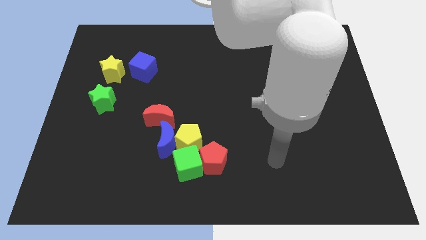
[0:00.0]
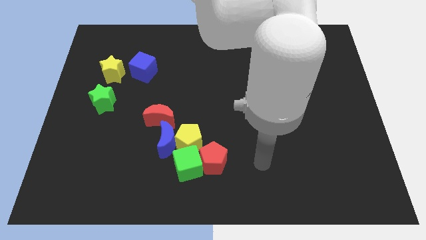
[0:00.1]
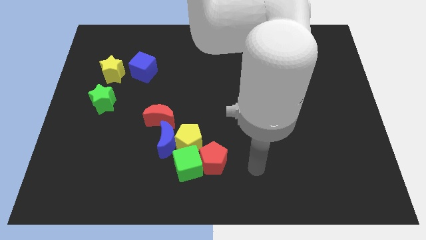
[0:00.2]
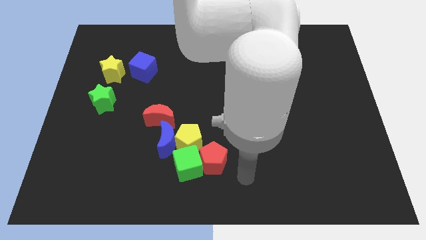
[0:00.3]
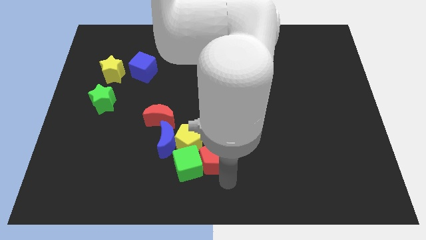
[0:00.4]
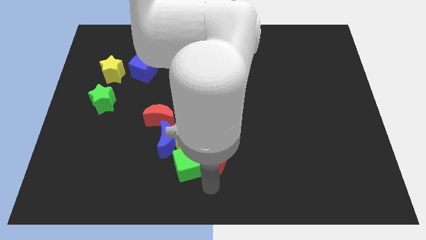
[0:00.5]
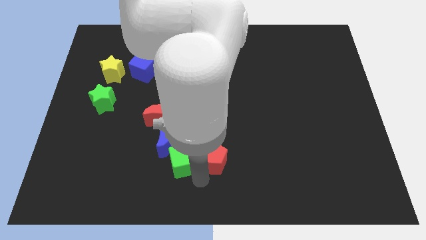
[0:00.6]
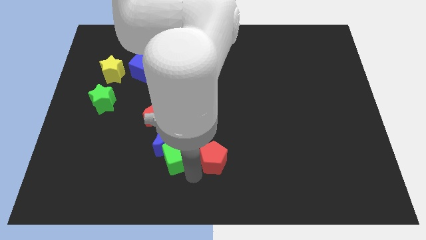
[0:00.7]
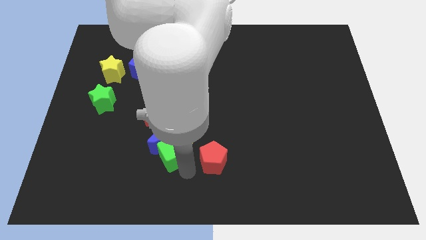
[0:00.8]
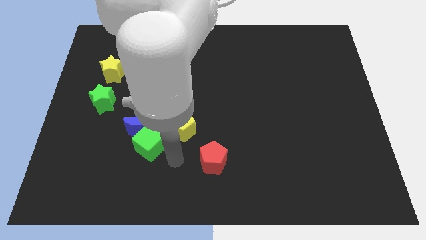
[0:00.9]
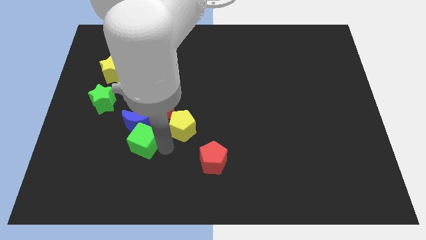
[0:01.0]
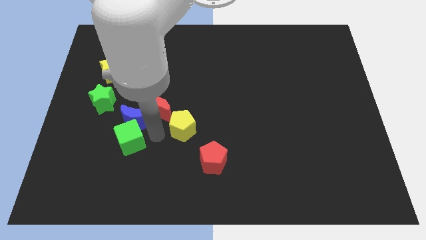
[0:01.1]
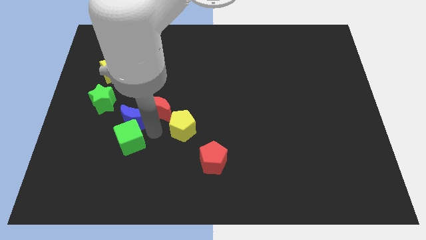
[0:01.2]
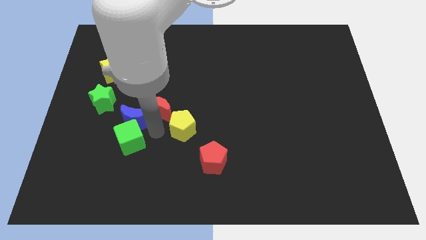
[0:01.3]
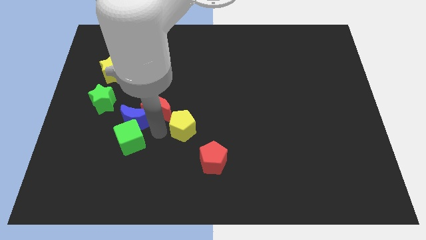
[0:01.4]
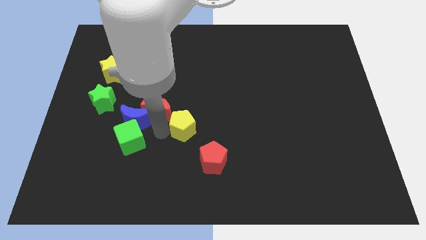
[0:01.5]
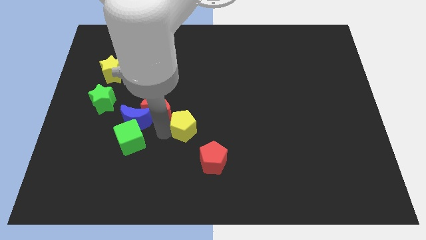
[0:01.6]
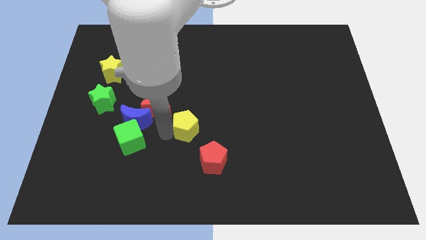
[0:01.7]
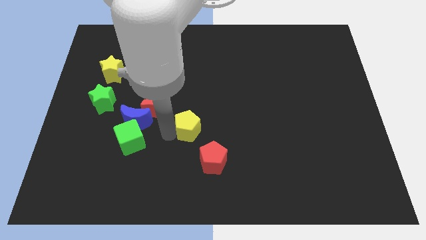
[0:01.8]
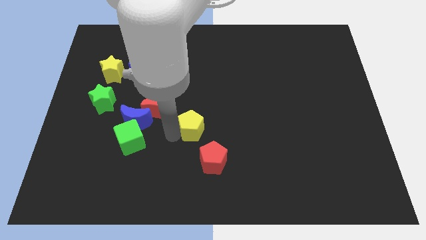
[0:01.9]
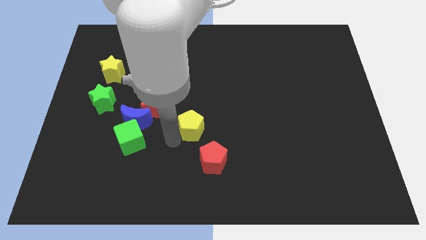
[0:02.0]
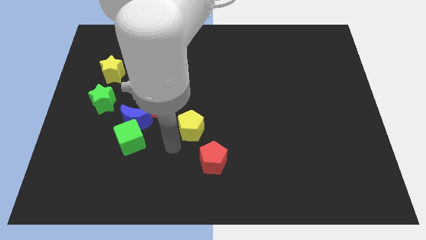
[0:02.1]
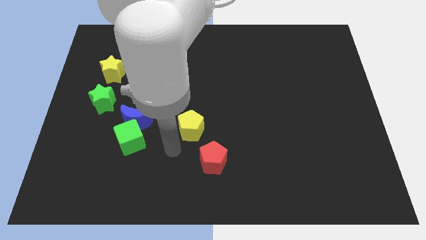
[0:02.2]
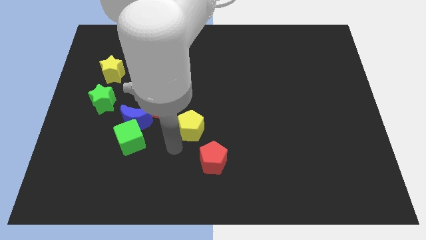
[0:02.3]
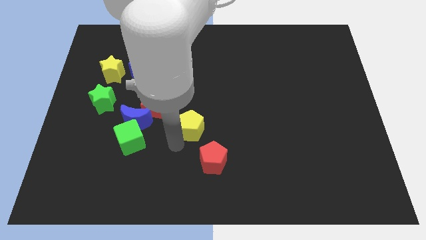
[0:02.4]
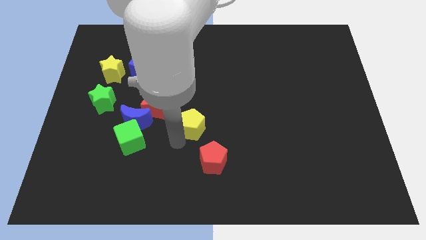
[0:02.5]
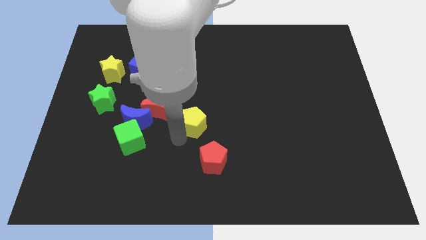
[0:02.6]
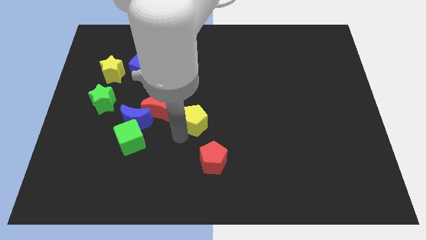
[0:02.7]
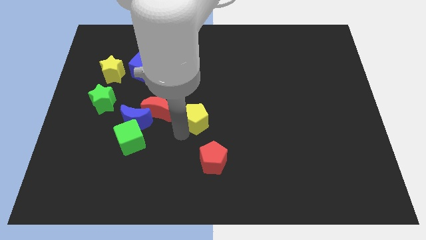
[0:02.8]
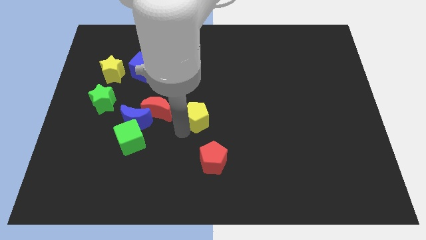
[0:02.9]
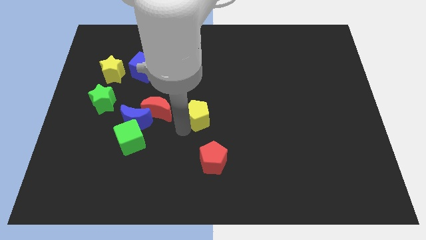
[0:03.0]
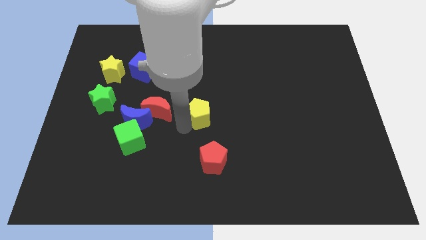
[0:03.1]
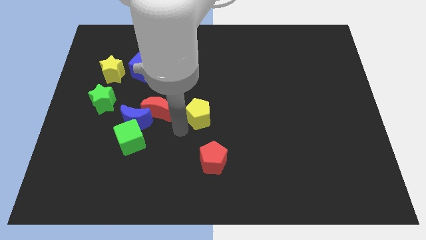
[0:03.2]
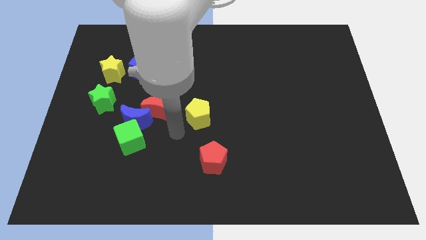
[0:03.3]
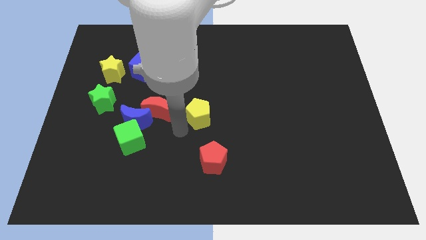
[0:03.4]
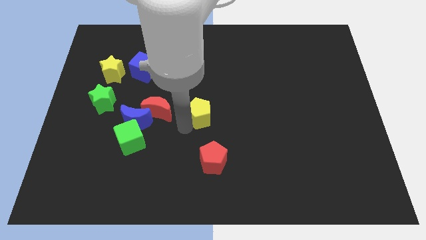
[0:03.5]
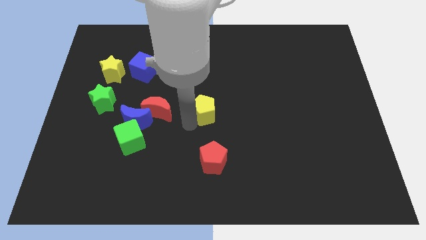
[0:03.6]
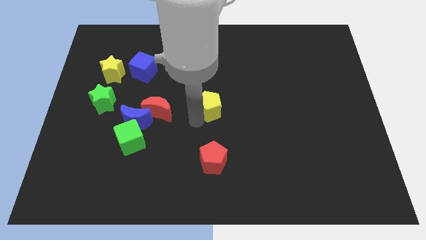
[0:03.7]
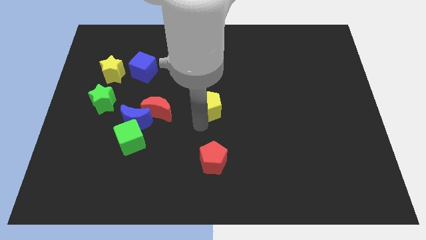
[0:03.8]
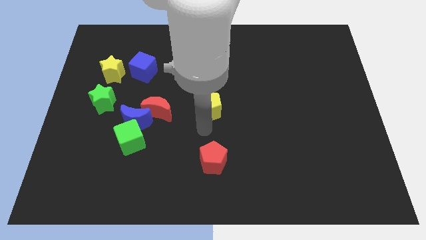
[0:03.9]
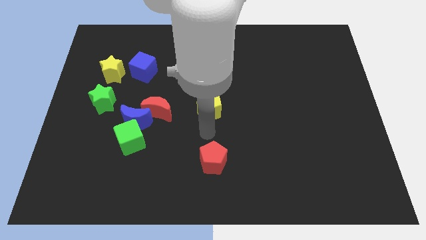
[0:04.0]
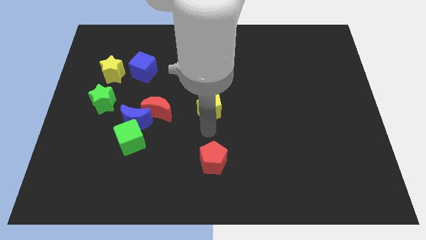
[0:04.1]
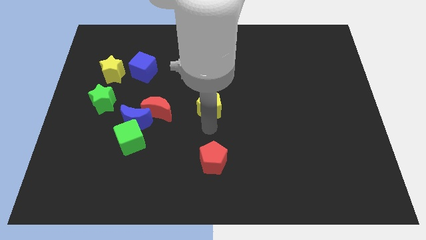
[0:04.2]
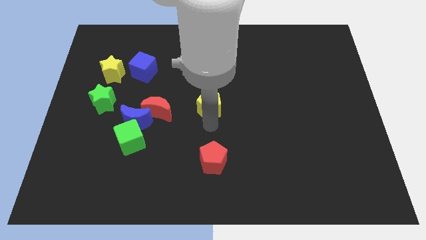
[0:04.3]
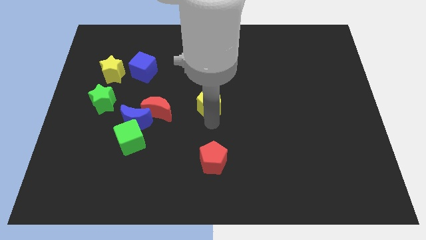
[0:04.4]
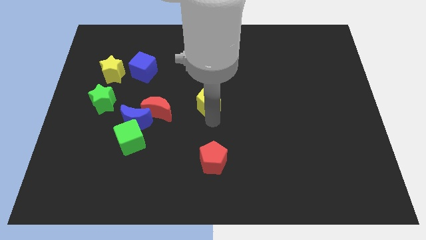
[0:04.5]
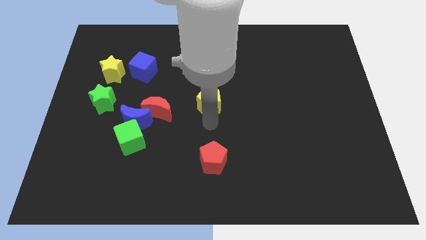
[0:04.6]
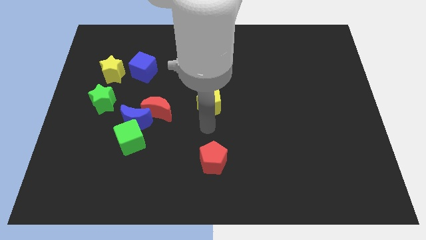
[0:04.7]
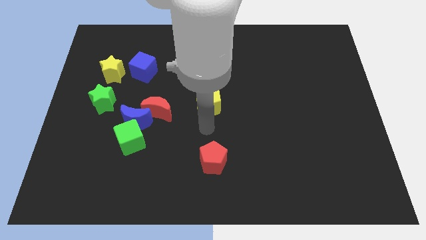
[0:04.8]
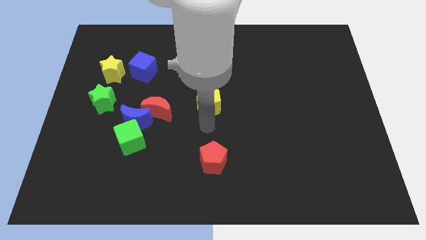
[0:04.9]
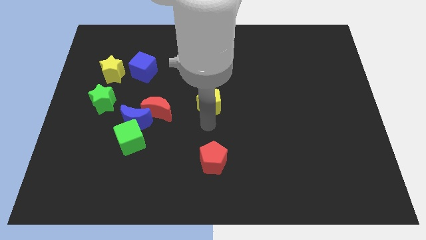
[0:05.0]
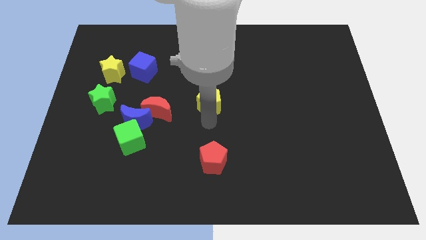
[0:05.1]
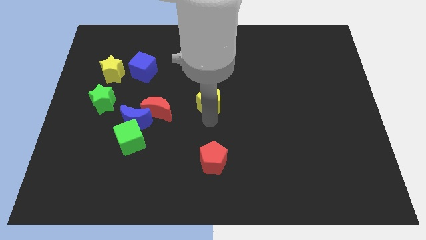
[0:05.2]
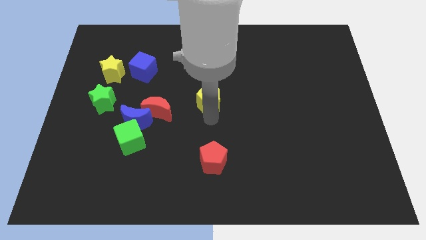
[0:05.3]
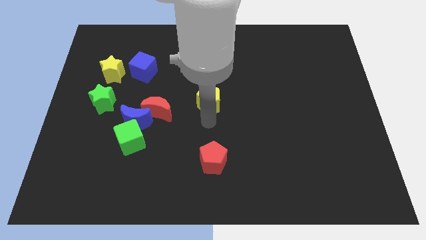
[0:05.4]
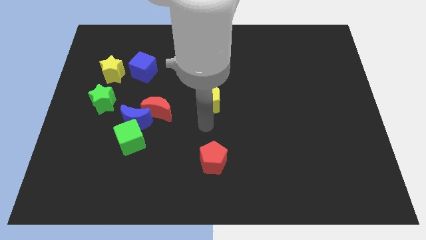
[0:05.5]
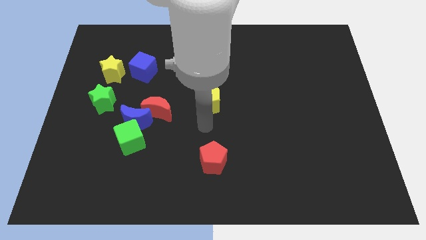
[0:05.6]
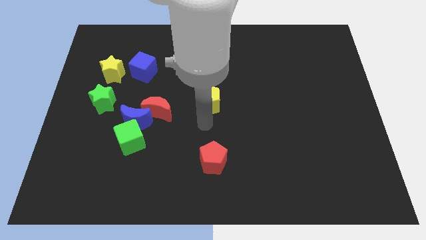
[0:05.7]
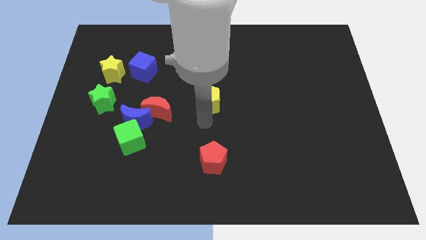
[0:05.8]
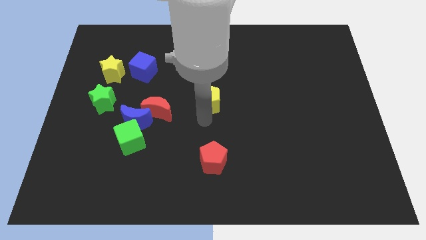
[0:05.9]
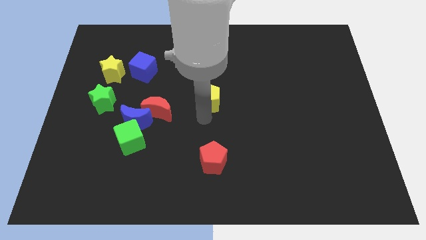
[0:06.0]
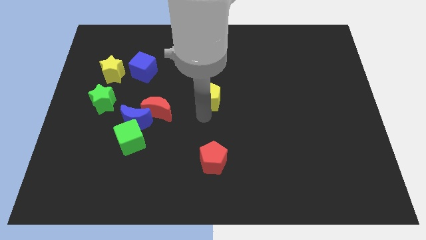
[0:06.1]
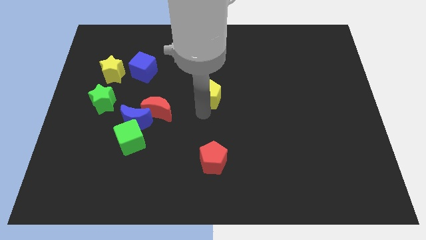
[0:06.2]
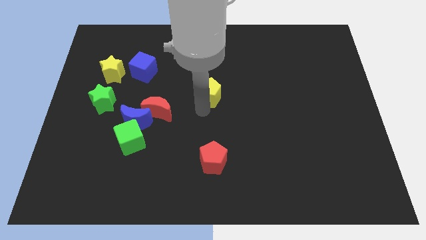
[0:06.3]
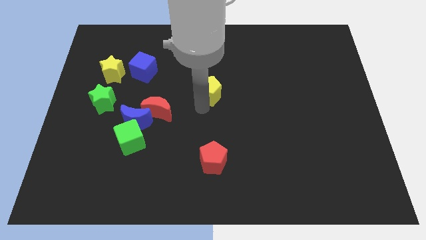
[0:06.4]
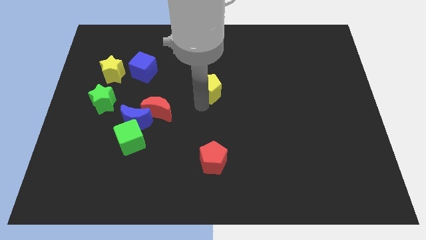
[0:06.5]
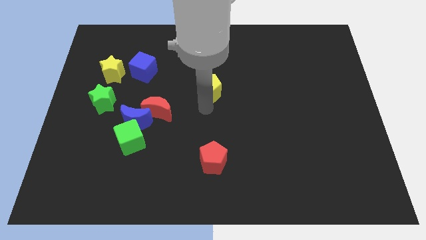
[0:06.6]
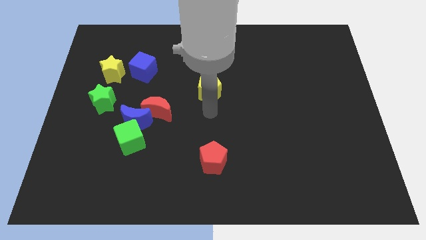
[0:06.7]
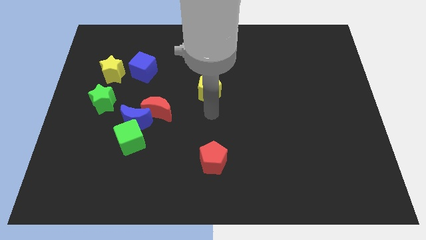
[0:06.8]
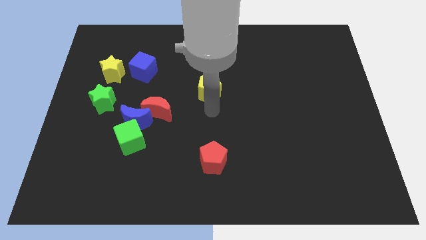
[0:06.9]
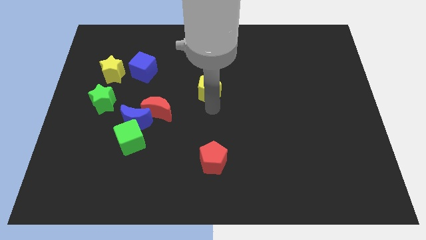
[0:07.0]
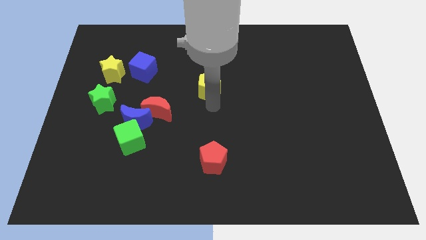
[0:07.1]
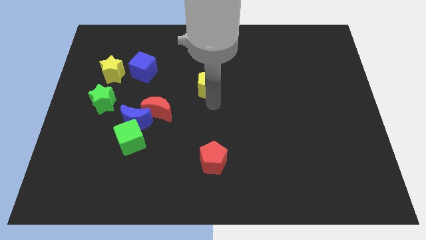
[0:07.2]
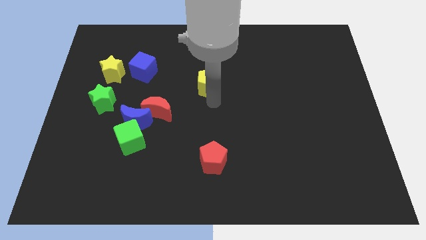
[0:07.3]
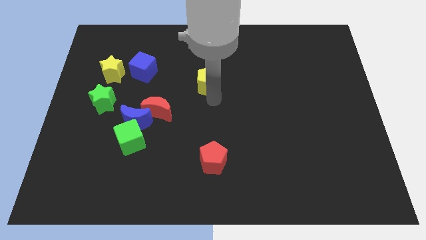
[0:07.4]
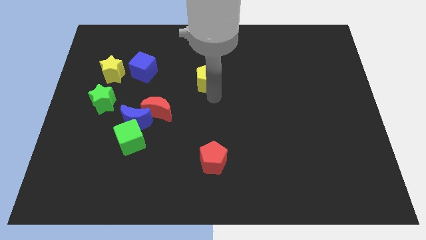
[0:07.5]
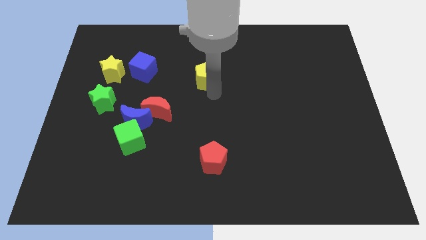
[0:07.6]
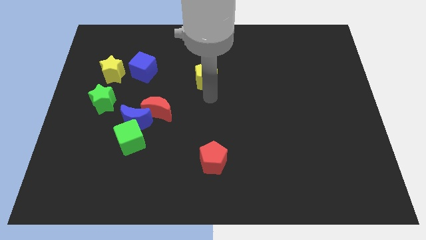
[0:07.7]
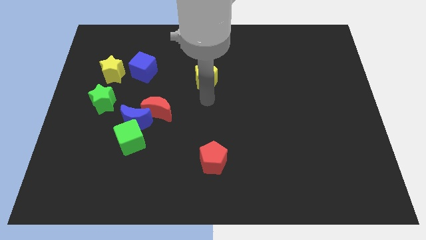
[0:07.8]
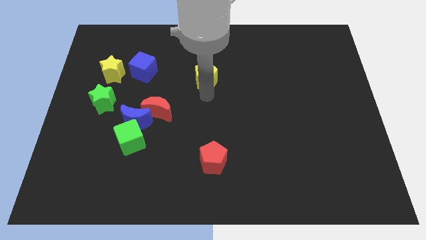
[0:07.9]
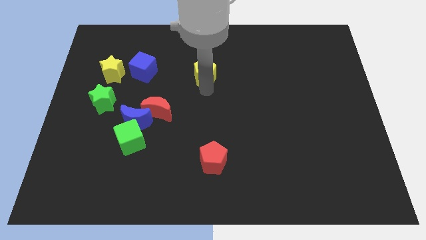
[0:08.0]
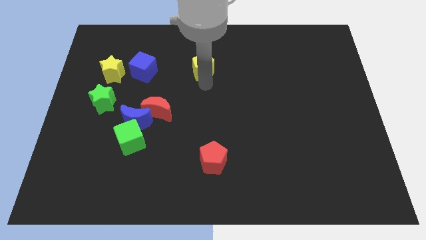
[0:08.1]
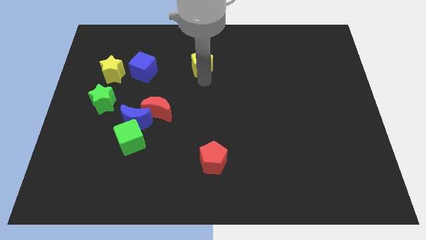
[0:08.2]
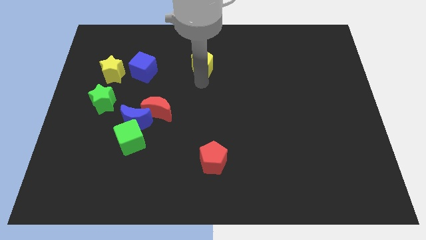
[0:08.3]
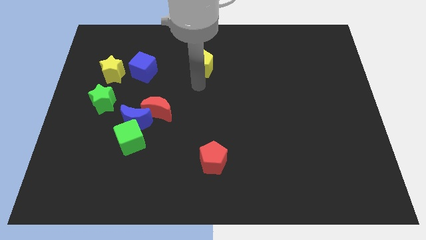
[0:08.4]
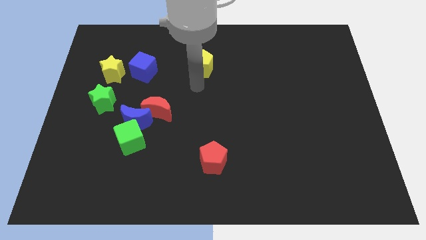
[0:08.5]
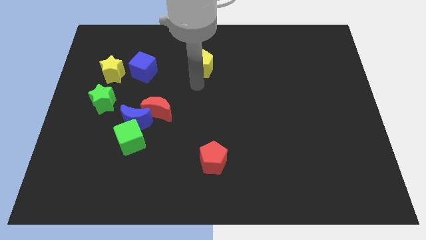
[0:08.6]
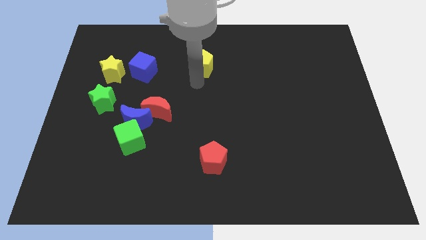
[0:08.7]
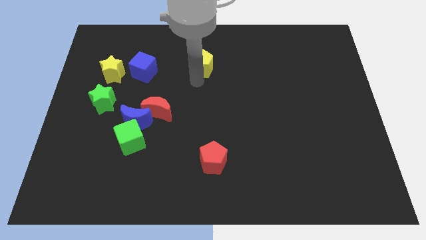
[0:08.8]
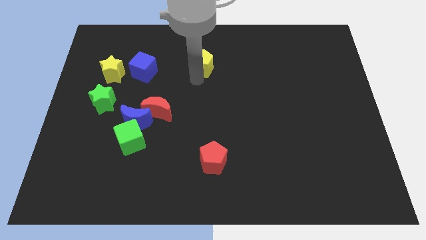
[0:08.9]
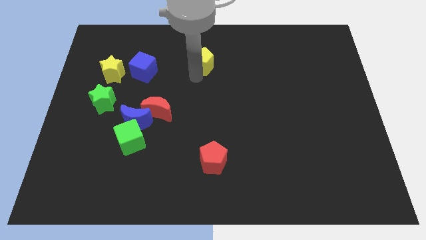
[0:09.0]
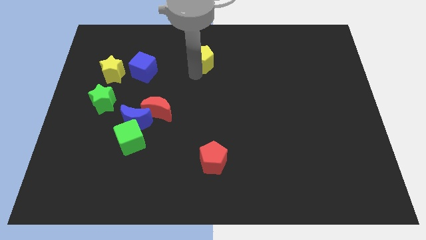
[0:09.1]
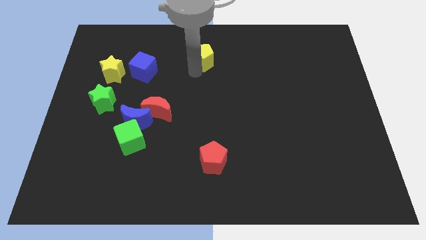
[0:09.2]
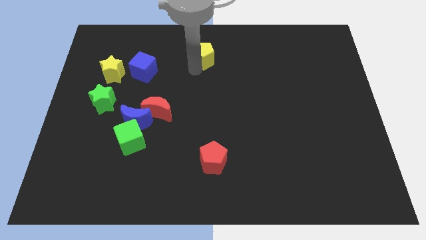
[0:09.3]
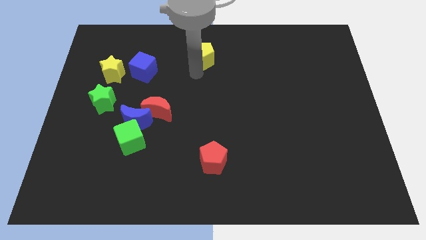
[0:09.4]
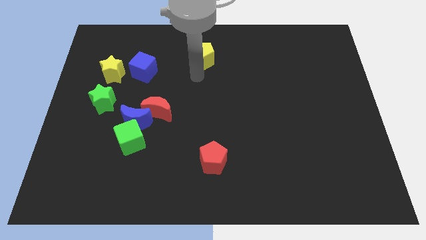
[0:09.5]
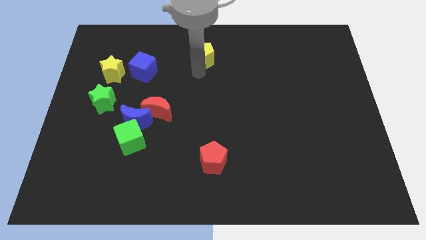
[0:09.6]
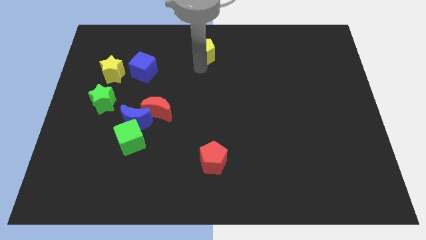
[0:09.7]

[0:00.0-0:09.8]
move the yellow pentagon to the top
